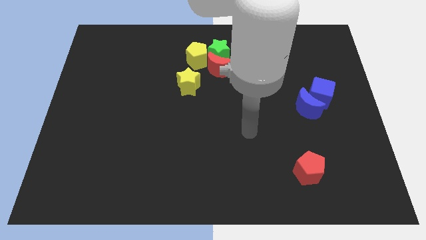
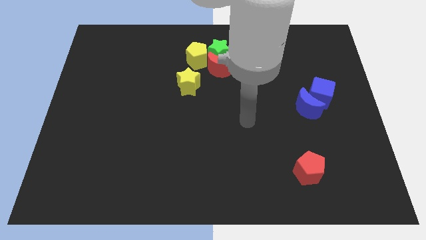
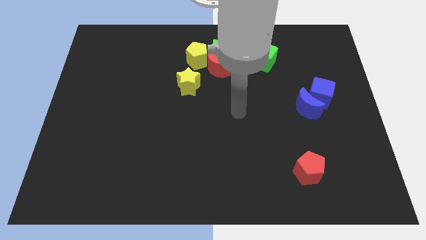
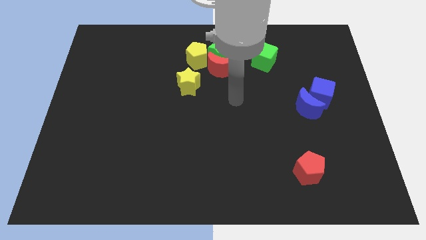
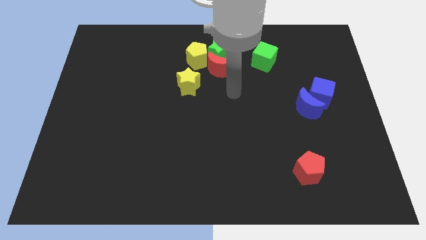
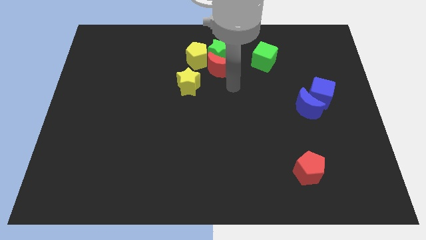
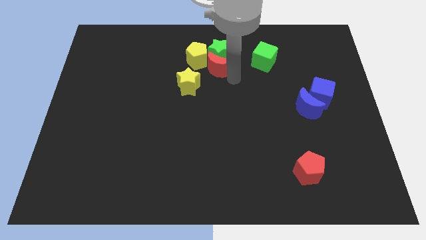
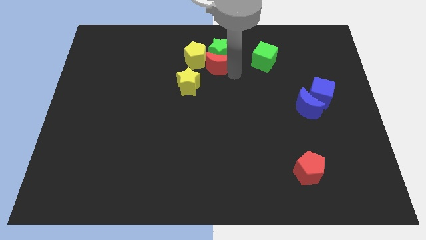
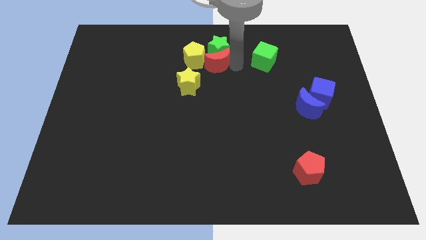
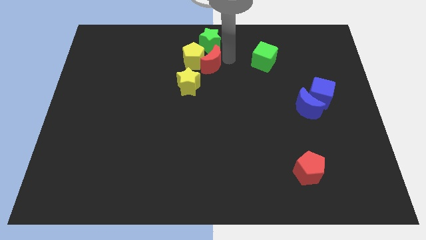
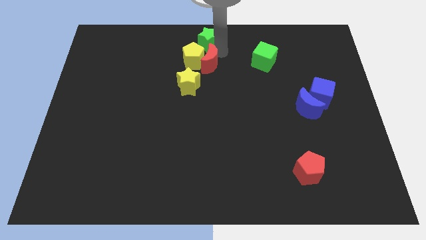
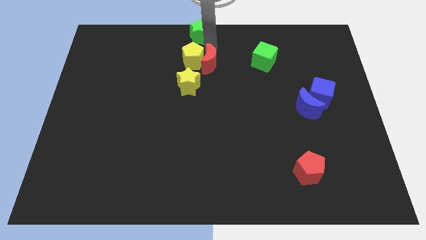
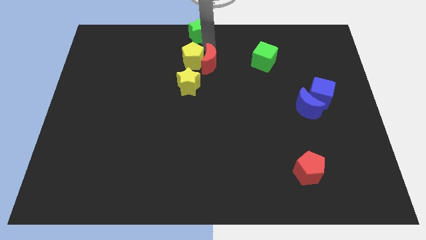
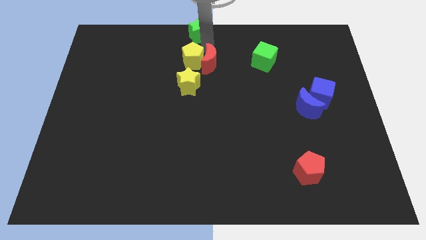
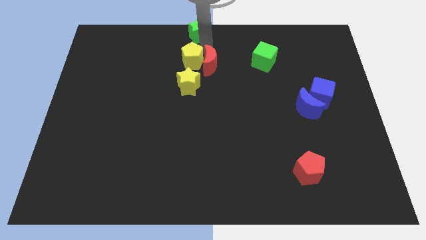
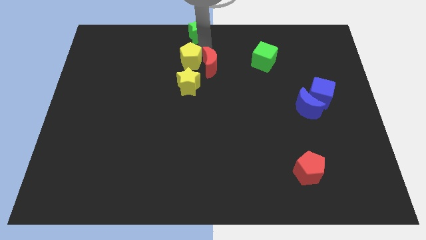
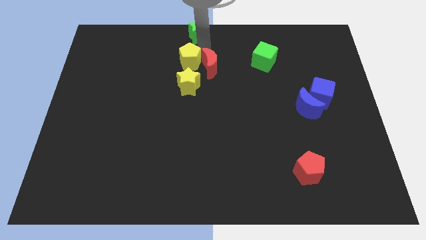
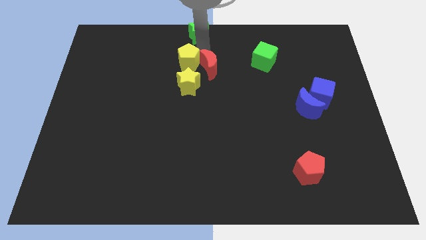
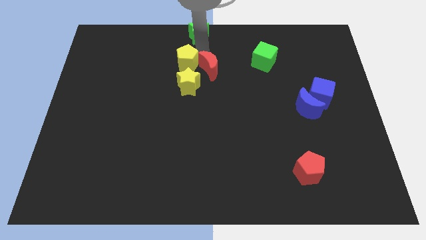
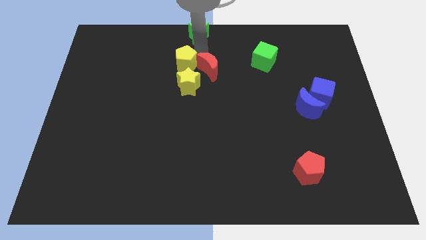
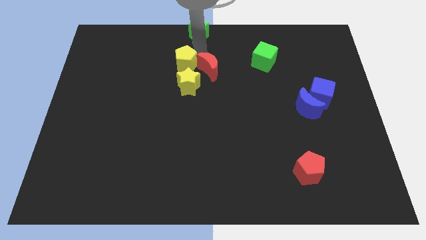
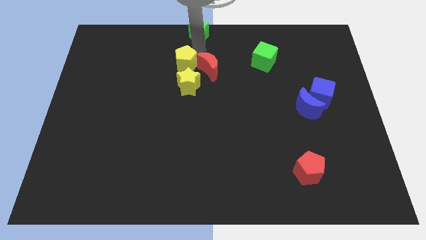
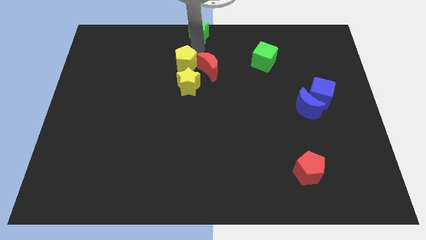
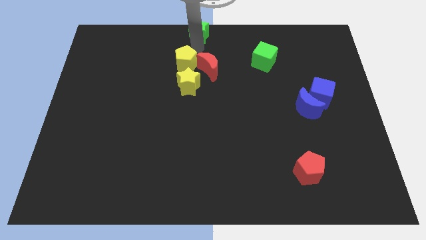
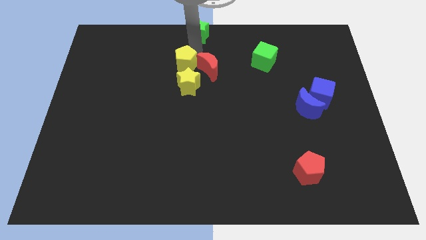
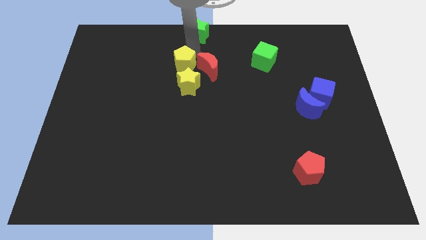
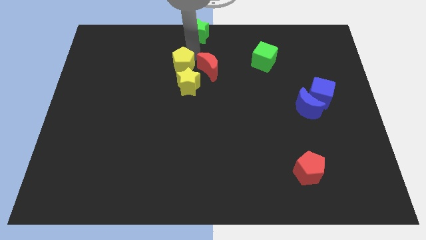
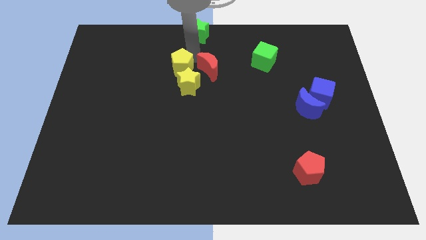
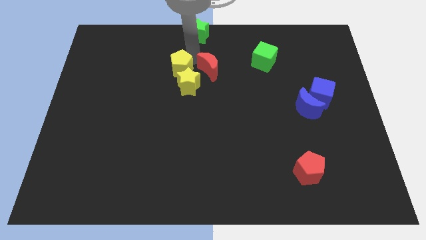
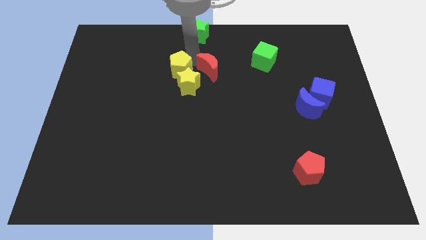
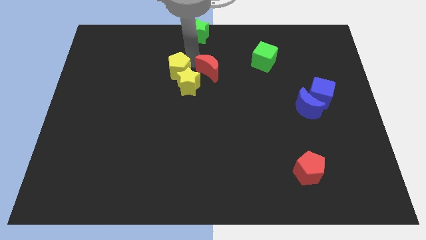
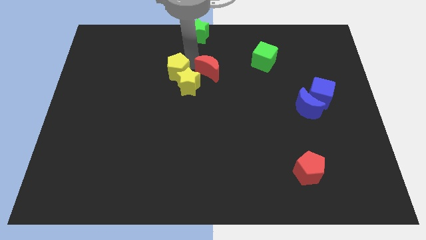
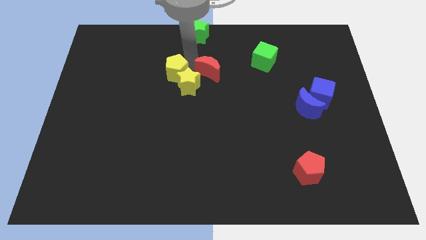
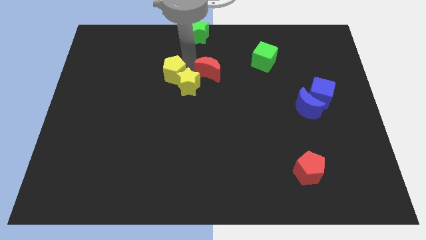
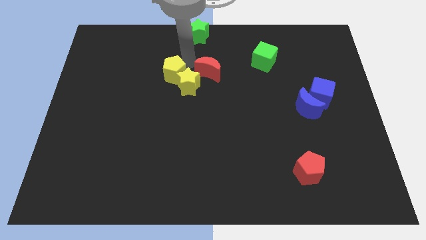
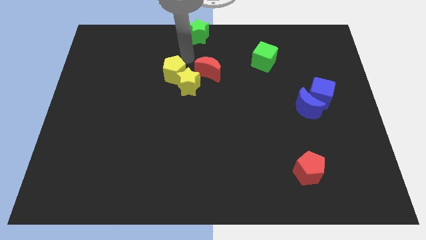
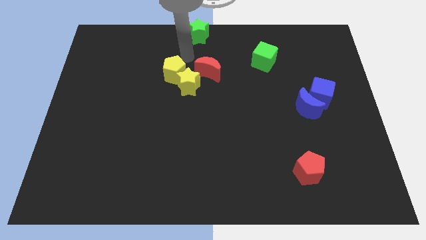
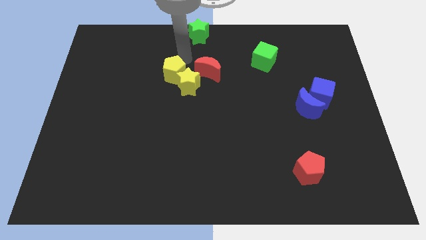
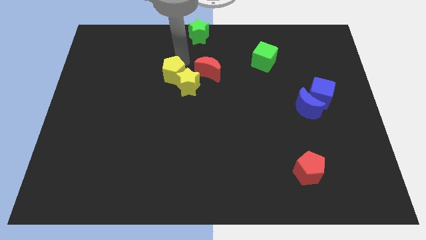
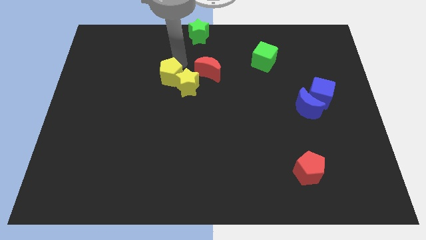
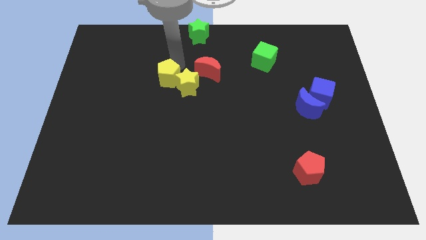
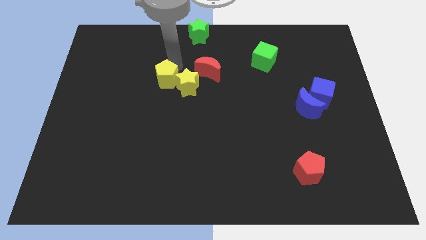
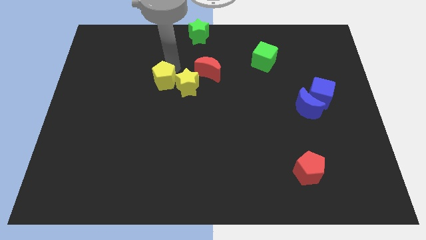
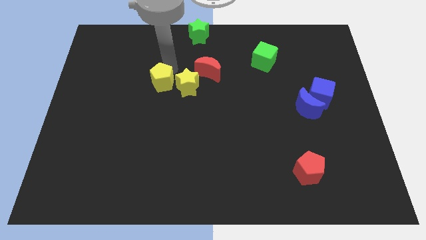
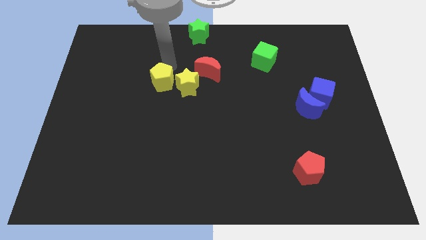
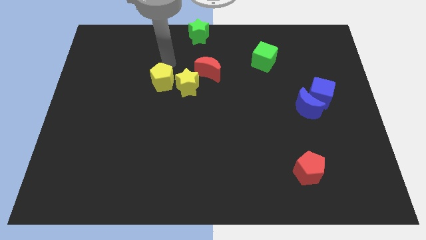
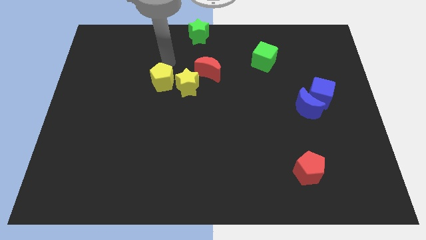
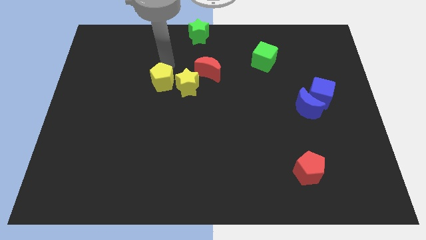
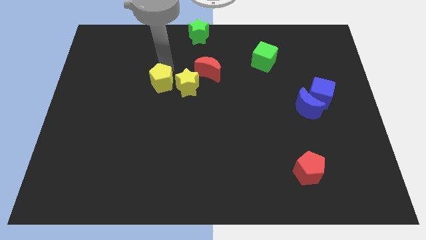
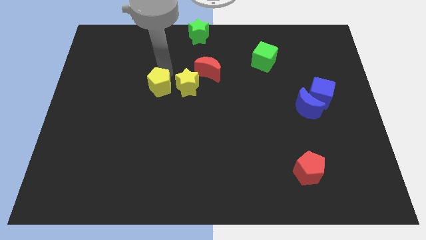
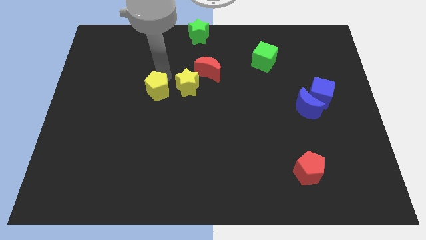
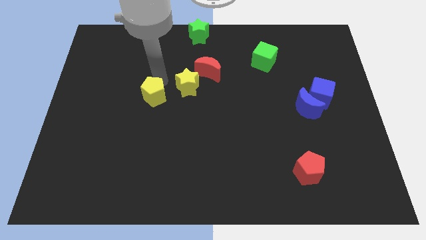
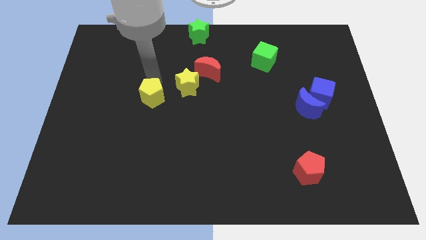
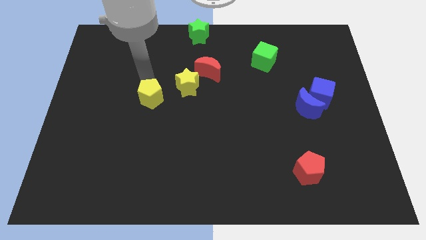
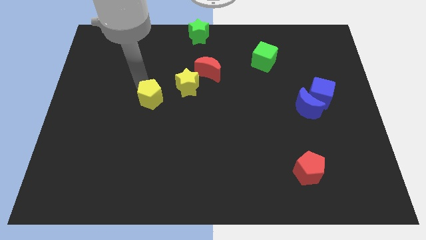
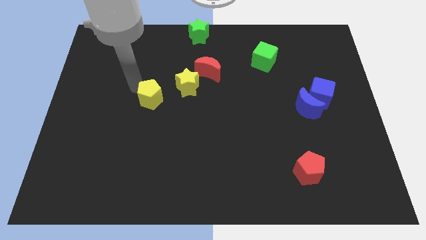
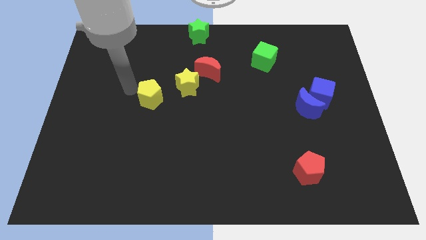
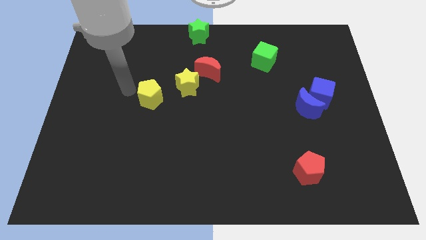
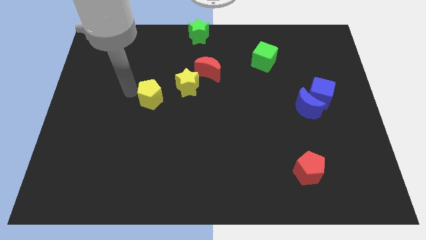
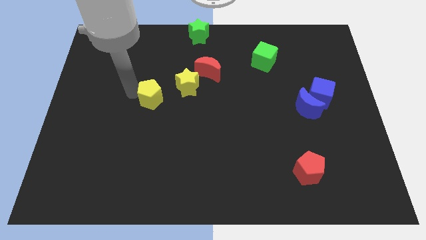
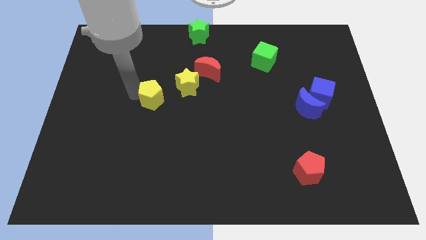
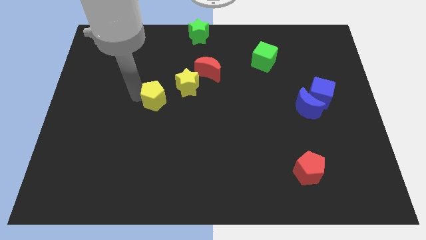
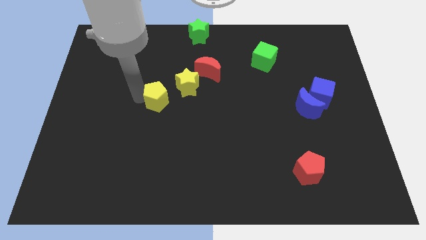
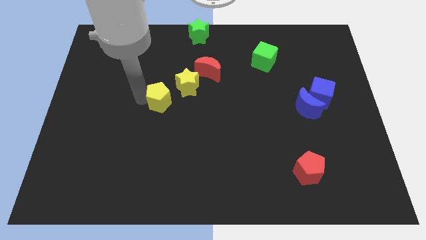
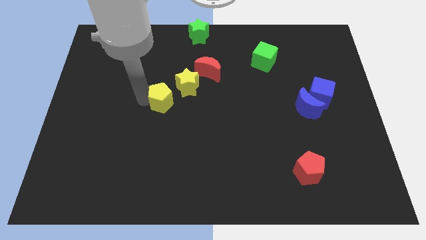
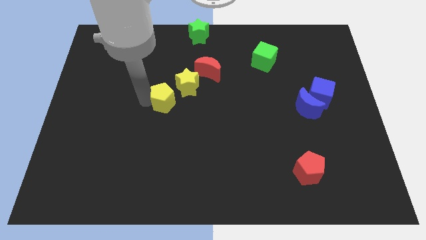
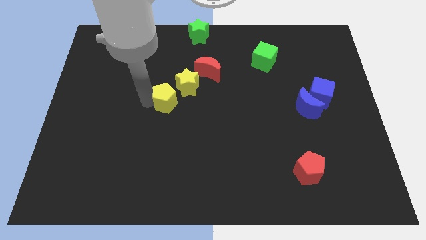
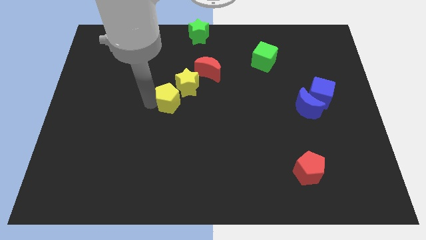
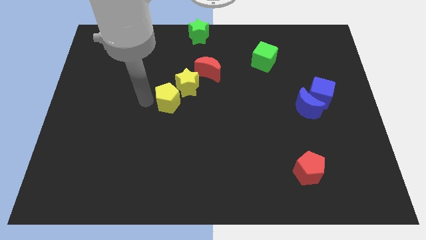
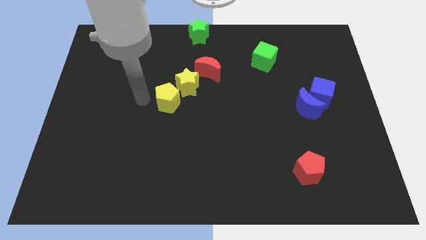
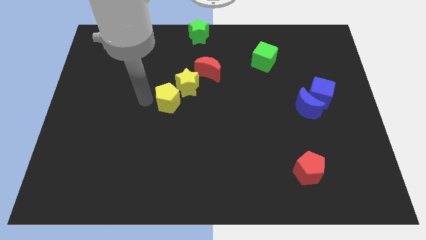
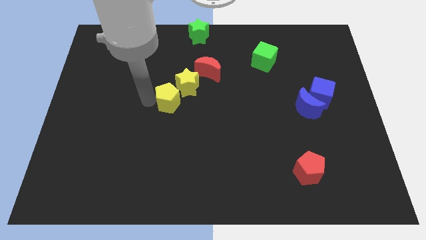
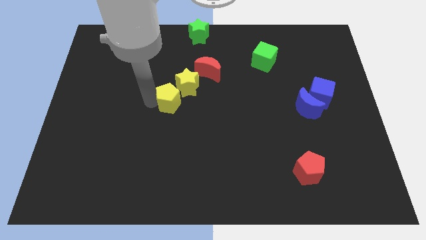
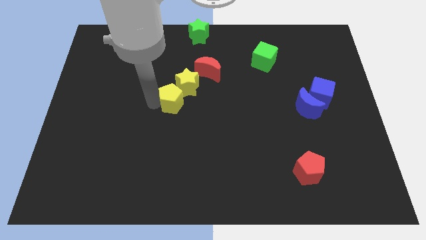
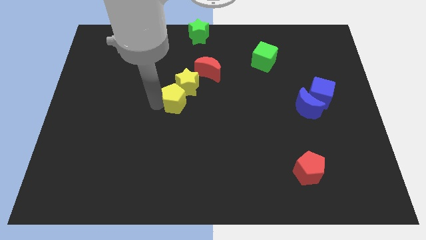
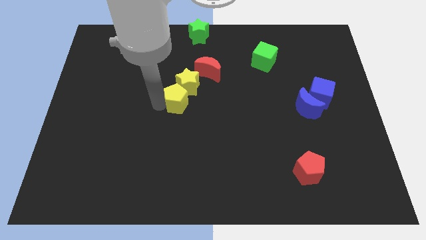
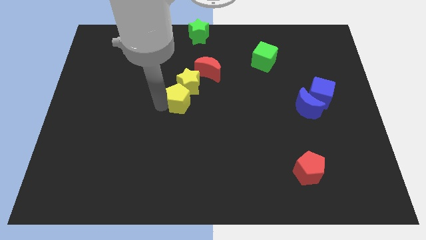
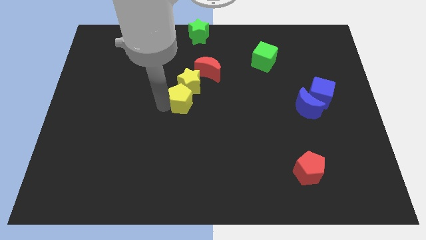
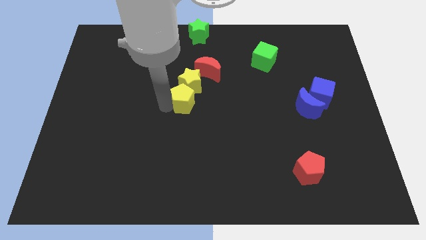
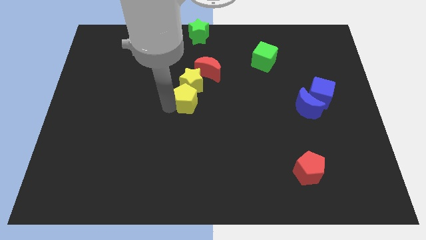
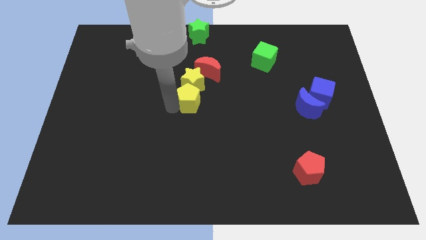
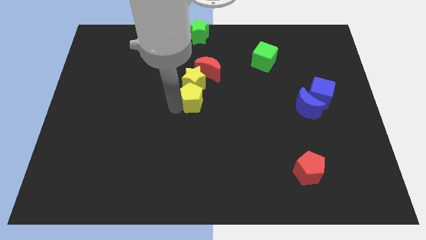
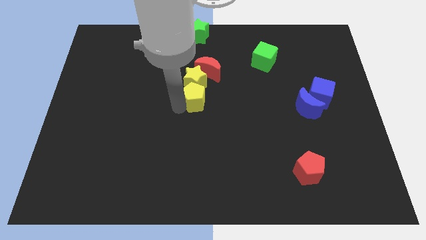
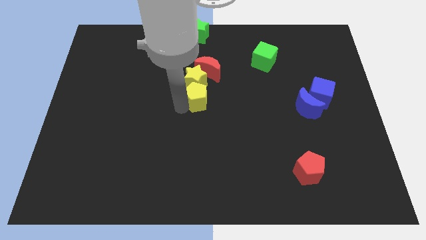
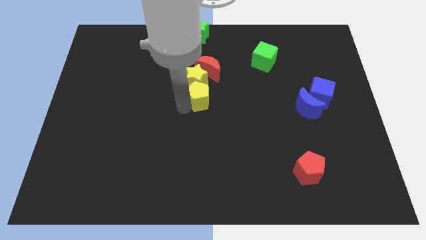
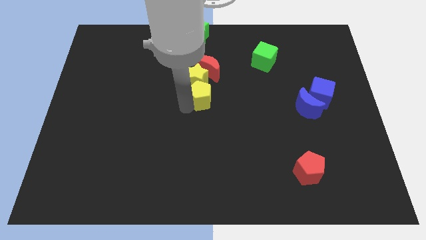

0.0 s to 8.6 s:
slide the yellow pentagon a little bit diagonally downwards and right
